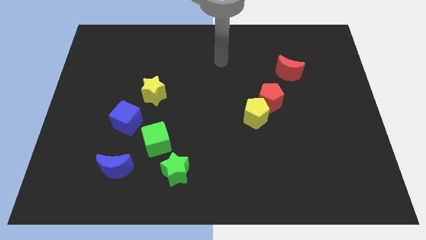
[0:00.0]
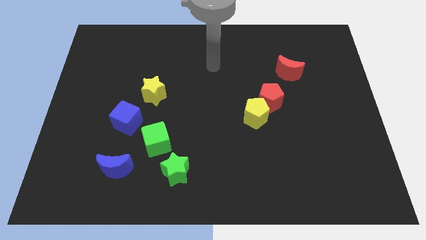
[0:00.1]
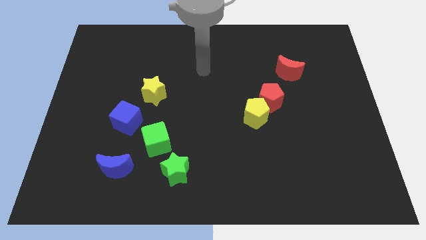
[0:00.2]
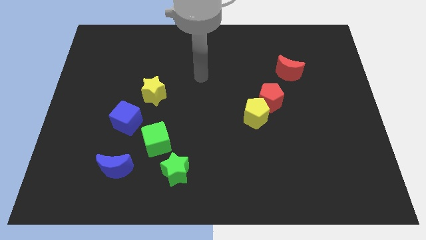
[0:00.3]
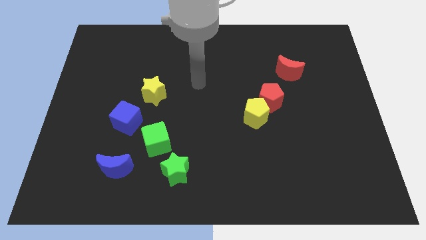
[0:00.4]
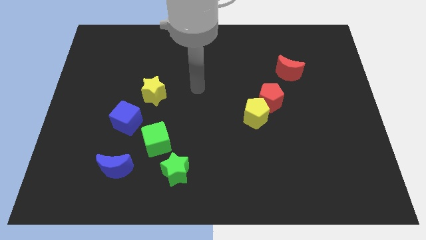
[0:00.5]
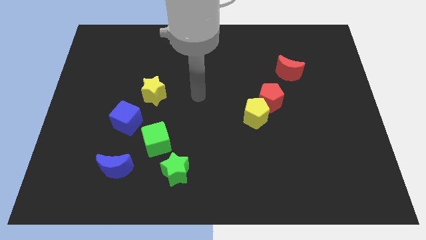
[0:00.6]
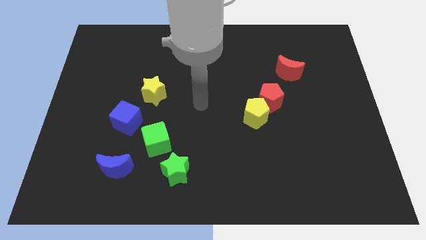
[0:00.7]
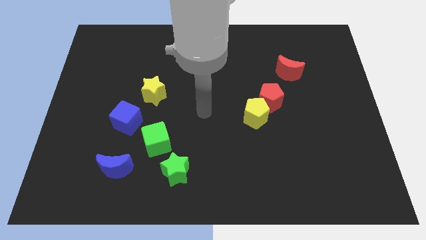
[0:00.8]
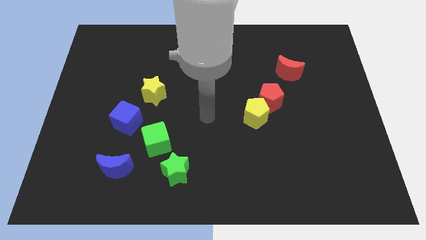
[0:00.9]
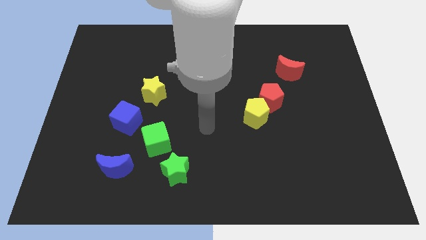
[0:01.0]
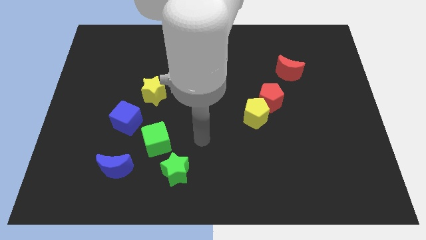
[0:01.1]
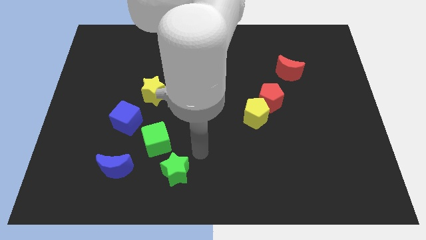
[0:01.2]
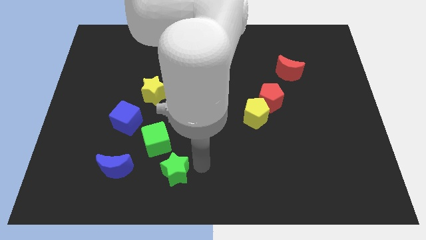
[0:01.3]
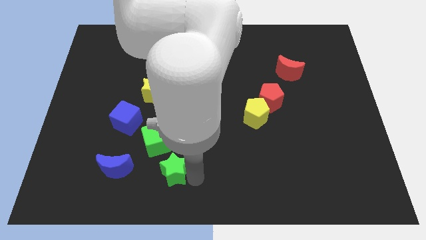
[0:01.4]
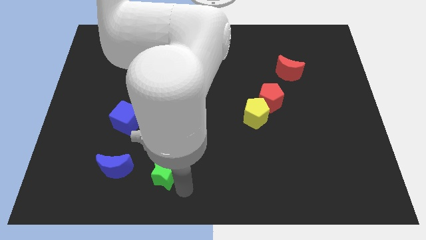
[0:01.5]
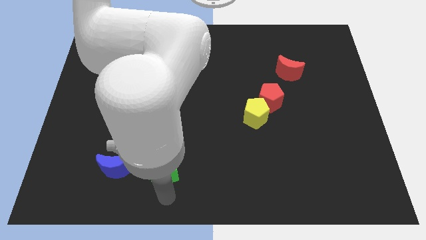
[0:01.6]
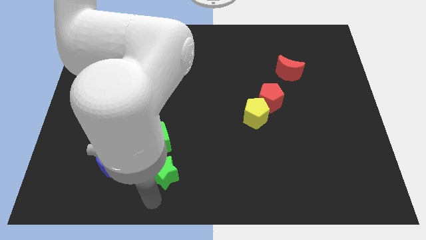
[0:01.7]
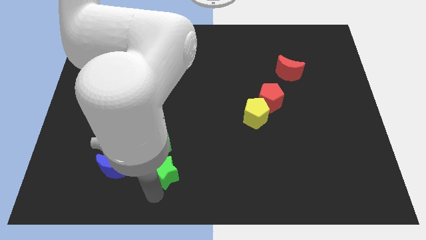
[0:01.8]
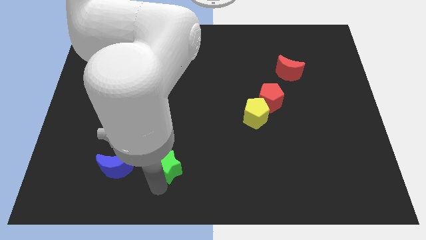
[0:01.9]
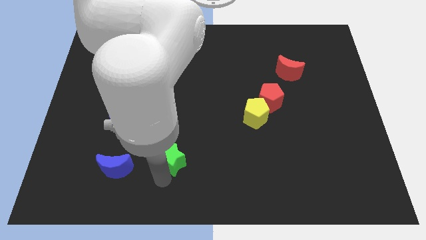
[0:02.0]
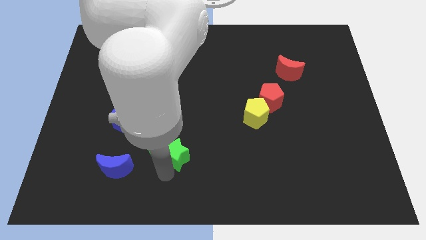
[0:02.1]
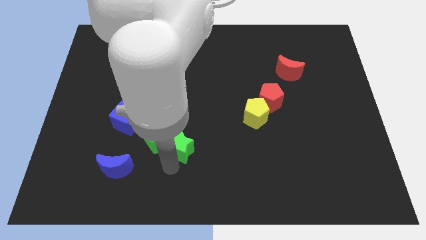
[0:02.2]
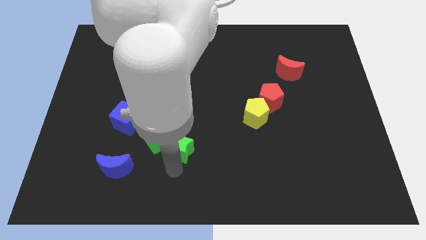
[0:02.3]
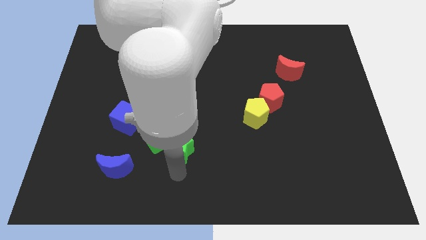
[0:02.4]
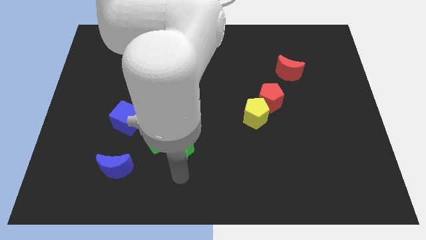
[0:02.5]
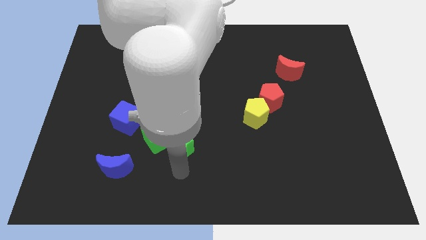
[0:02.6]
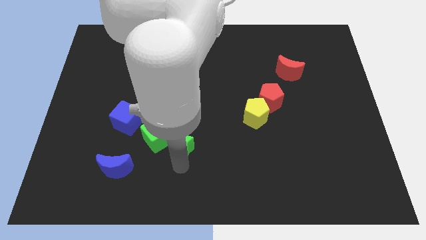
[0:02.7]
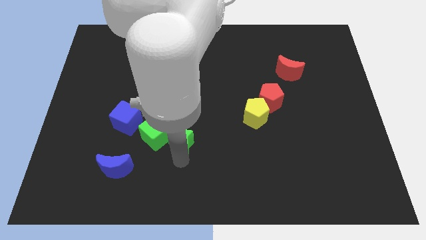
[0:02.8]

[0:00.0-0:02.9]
push the green star a bit up

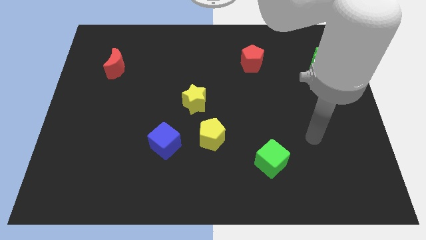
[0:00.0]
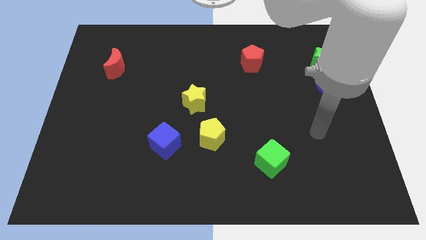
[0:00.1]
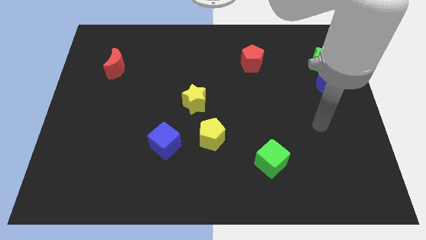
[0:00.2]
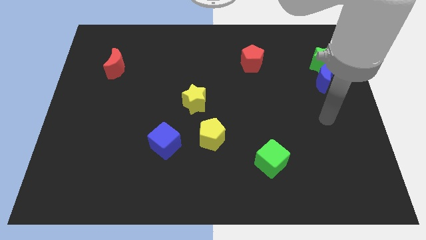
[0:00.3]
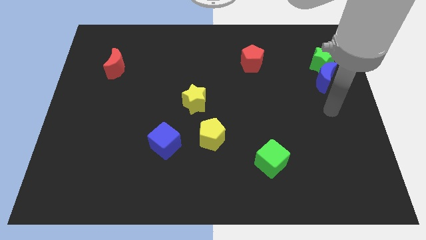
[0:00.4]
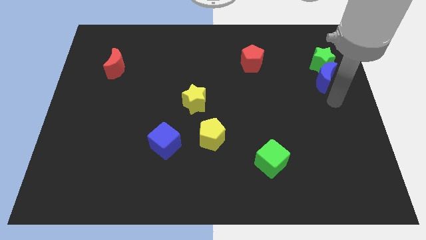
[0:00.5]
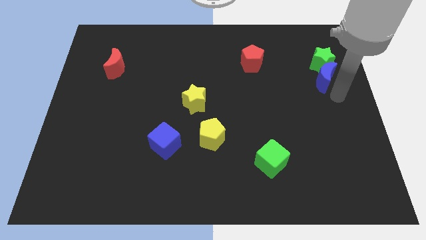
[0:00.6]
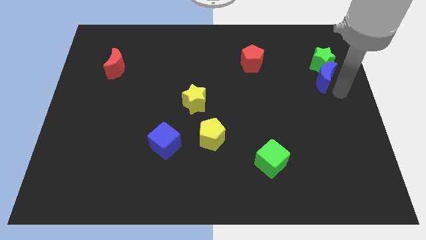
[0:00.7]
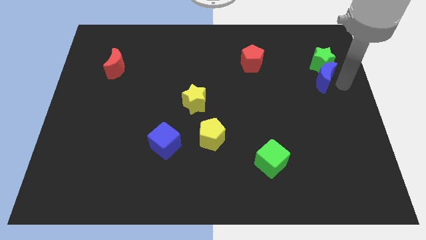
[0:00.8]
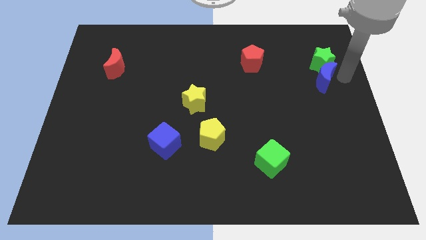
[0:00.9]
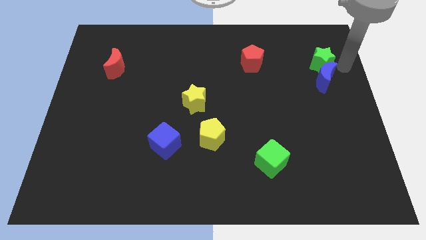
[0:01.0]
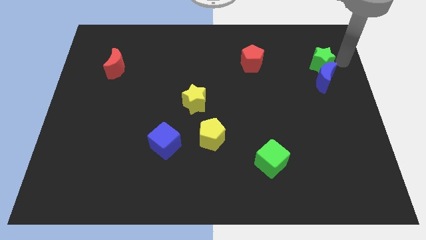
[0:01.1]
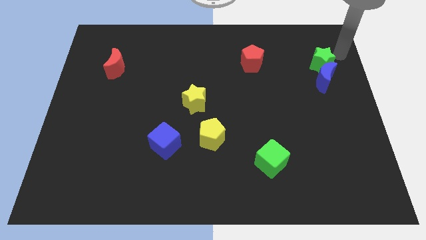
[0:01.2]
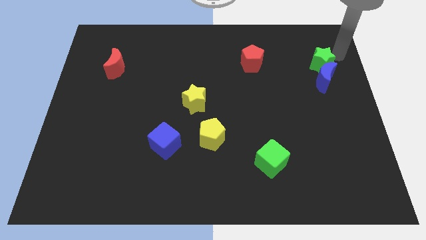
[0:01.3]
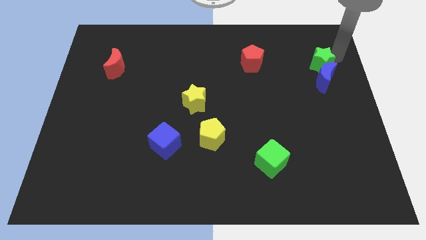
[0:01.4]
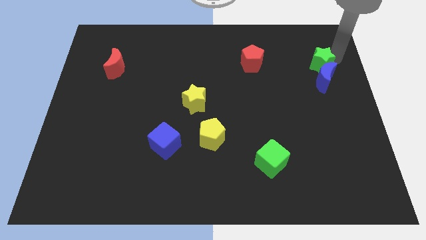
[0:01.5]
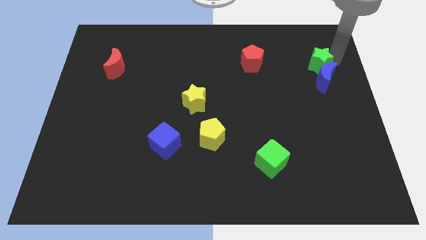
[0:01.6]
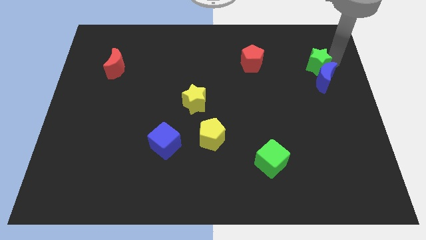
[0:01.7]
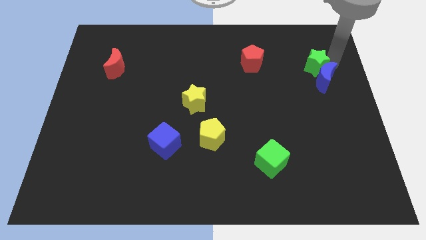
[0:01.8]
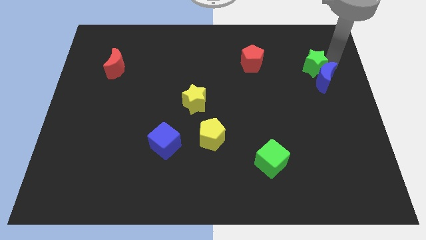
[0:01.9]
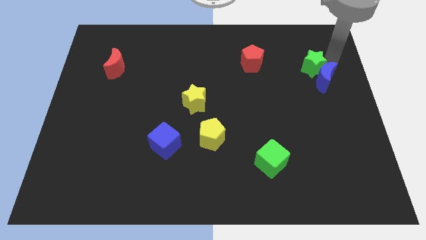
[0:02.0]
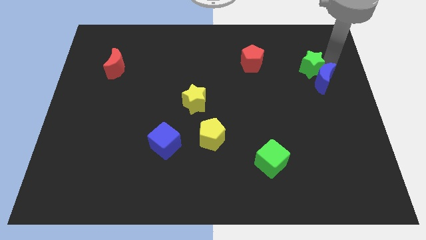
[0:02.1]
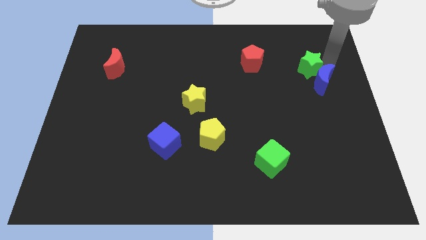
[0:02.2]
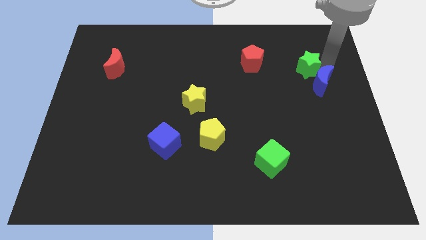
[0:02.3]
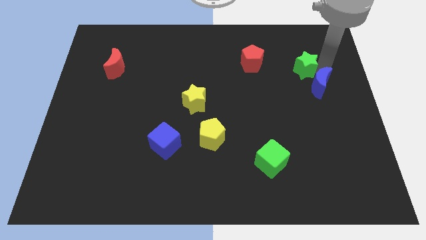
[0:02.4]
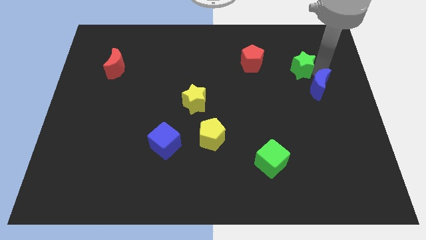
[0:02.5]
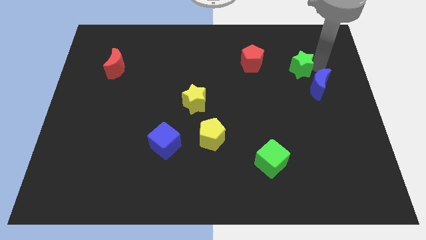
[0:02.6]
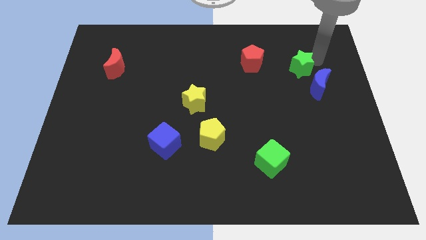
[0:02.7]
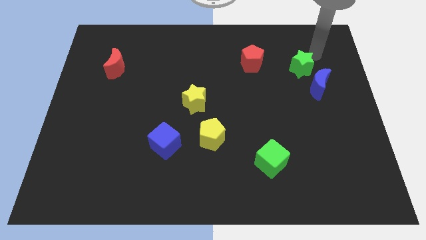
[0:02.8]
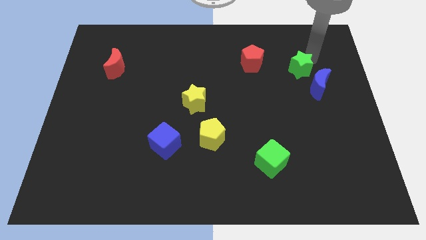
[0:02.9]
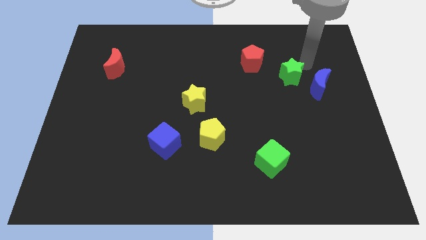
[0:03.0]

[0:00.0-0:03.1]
slide the green star downwards and then to the left a bit

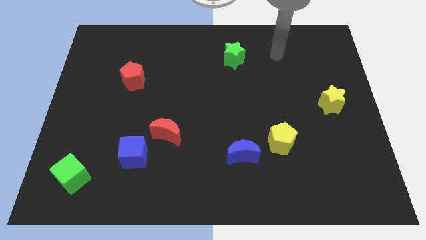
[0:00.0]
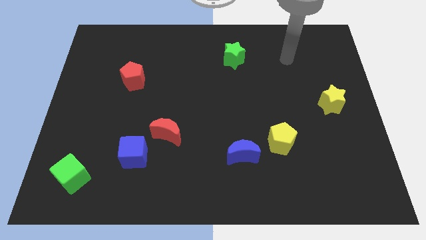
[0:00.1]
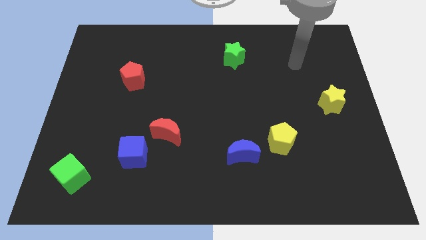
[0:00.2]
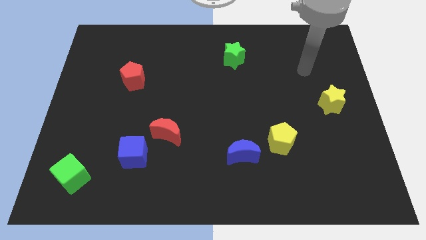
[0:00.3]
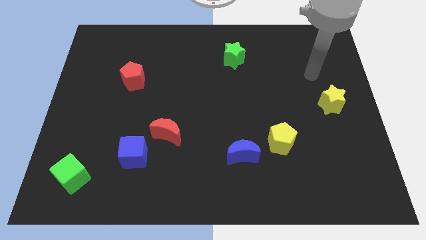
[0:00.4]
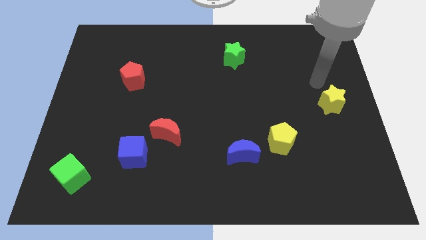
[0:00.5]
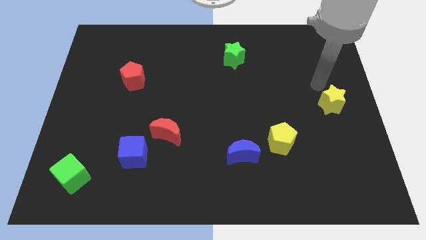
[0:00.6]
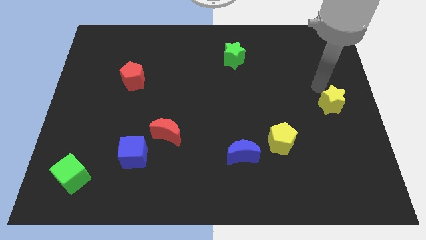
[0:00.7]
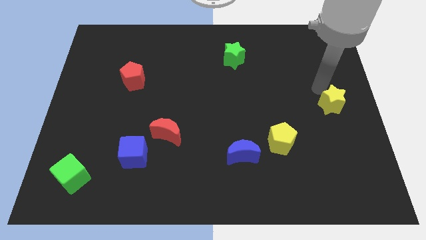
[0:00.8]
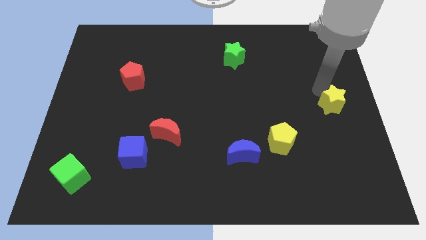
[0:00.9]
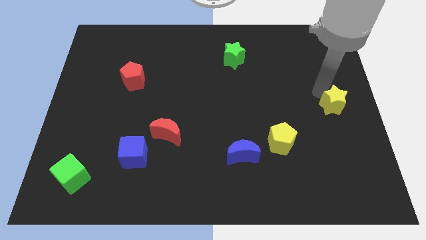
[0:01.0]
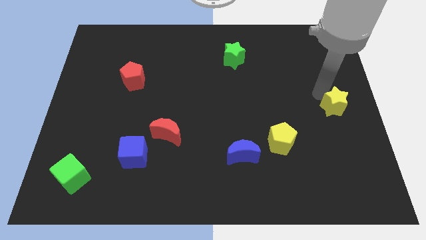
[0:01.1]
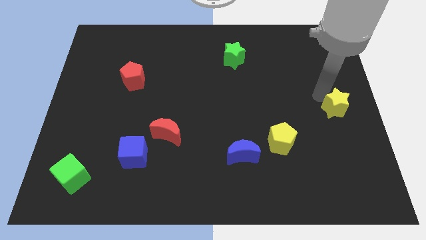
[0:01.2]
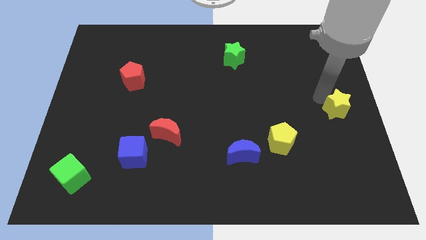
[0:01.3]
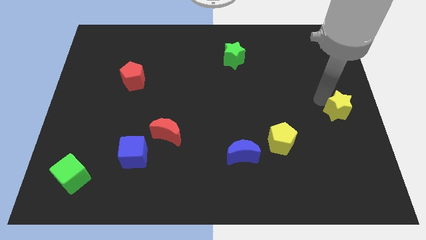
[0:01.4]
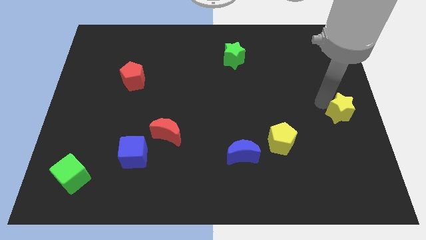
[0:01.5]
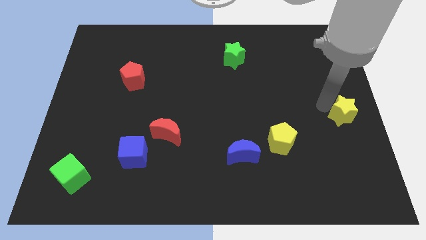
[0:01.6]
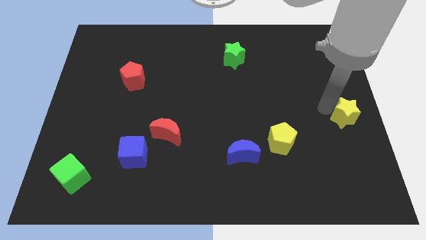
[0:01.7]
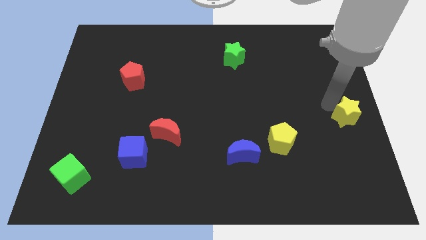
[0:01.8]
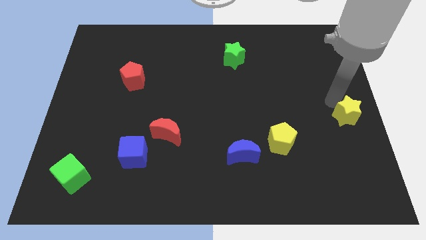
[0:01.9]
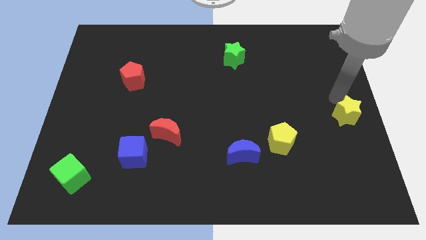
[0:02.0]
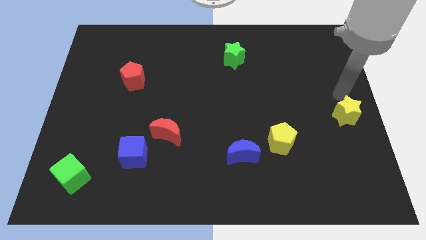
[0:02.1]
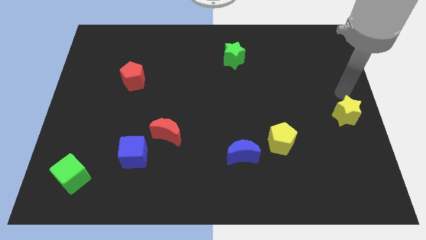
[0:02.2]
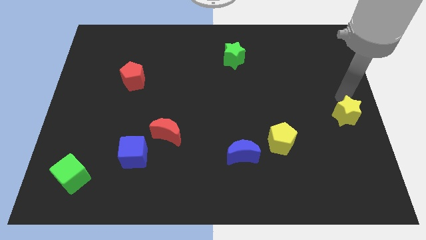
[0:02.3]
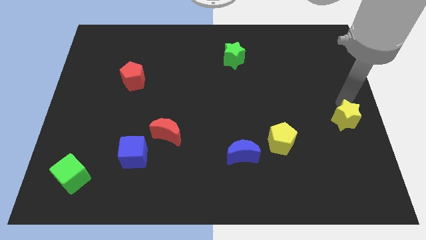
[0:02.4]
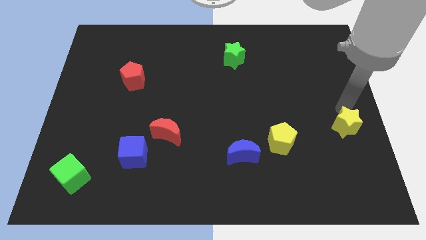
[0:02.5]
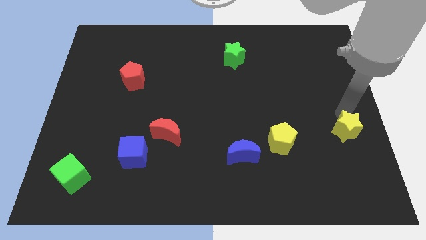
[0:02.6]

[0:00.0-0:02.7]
push the yellow star a little bit downwards
